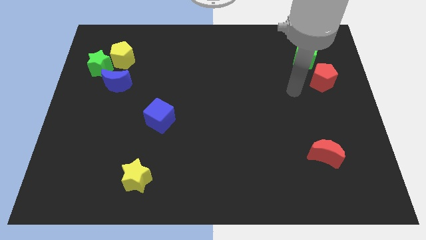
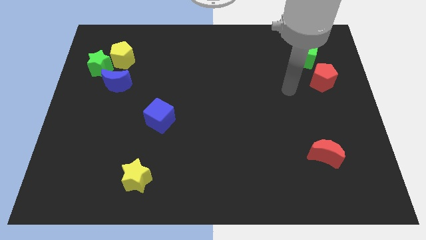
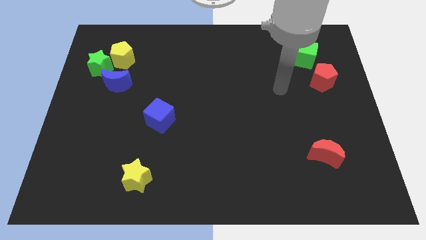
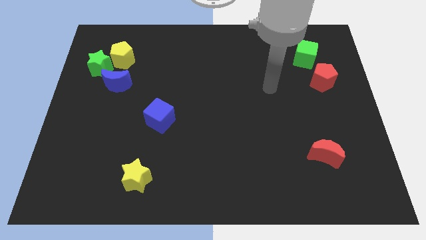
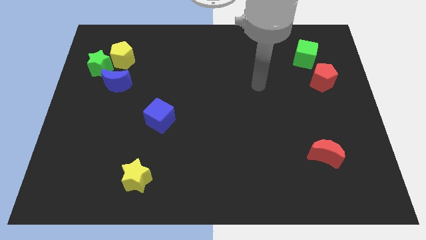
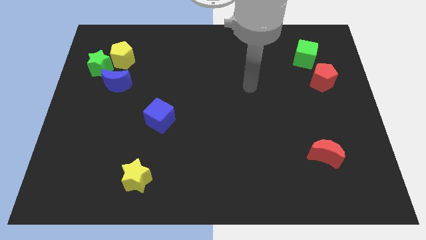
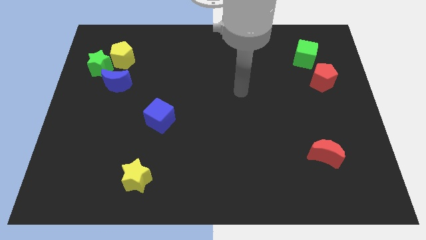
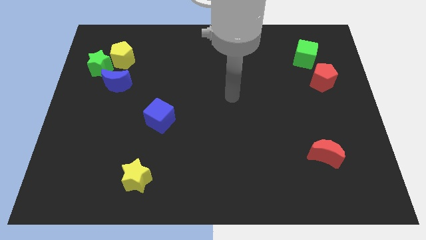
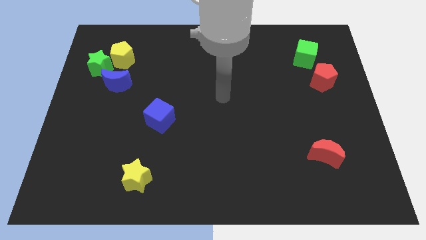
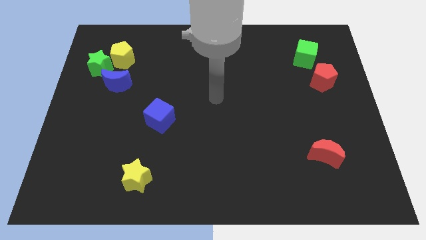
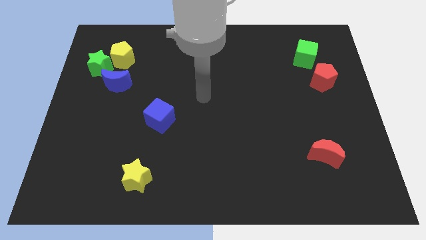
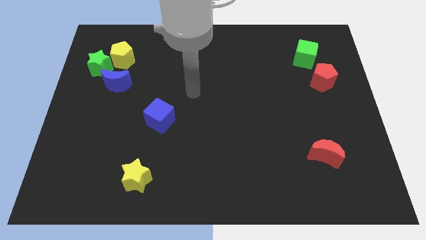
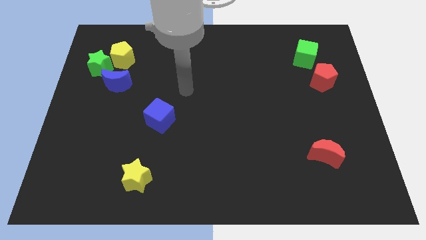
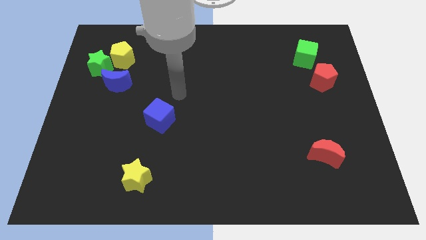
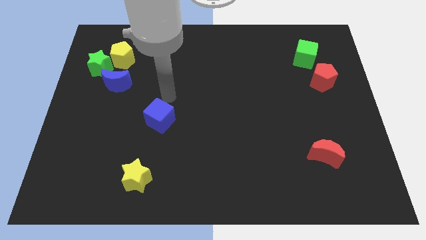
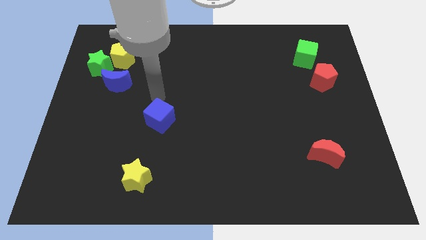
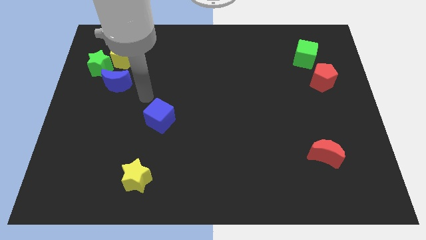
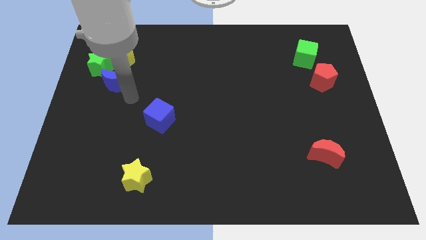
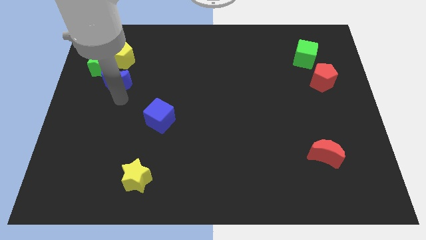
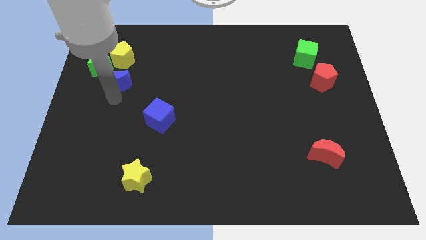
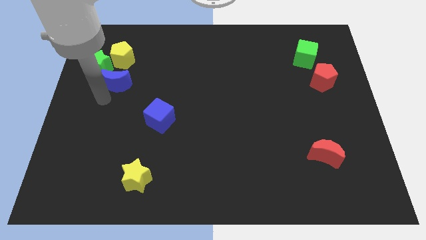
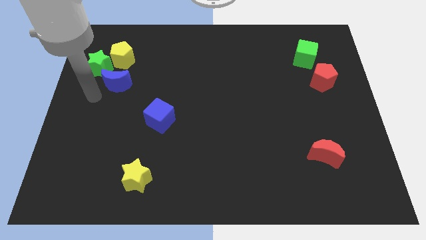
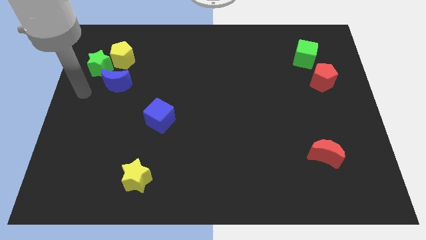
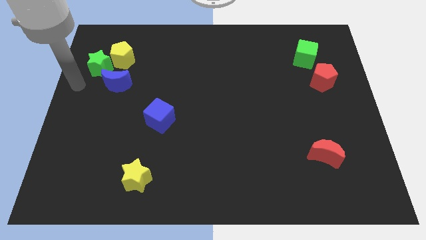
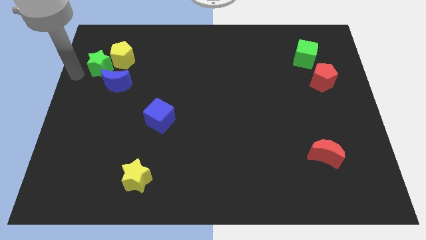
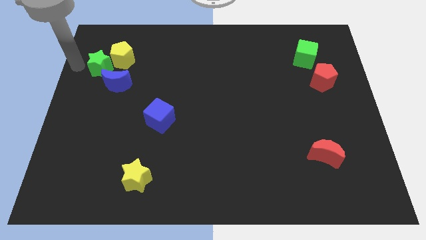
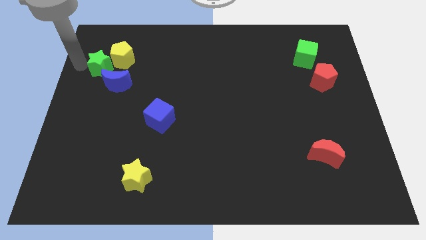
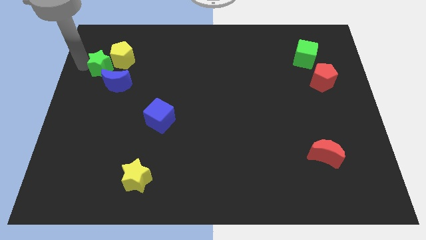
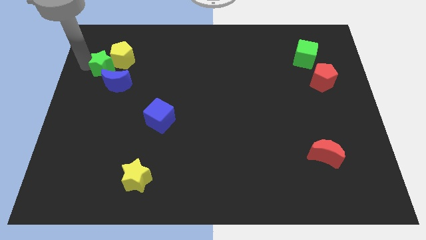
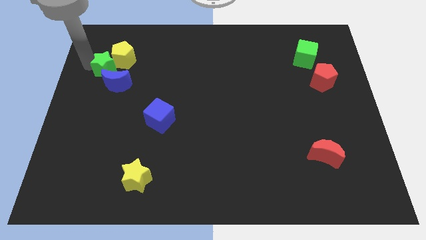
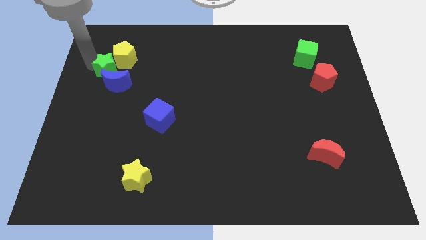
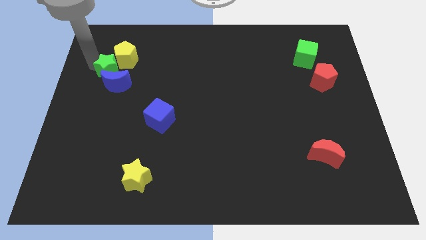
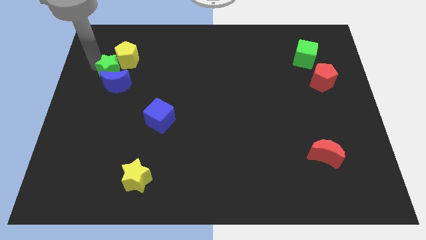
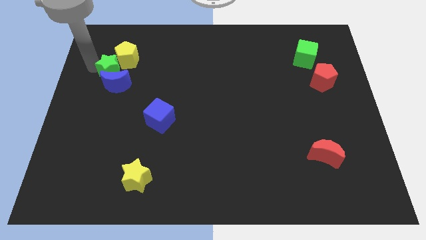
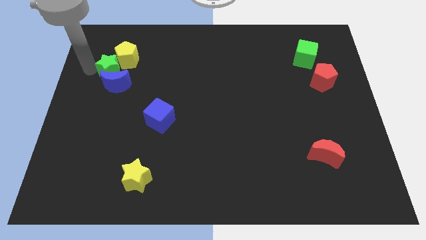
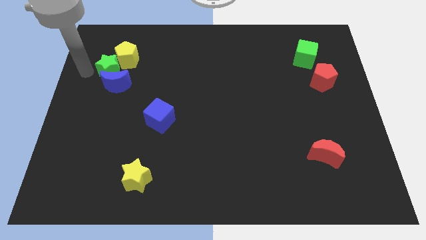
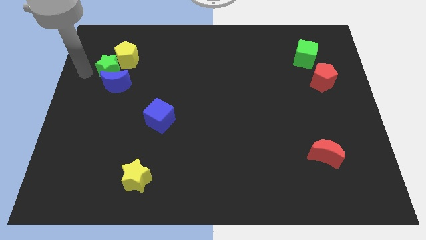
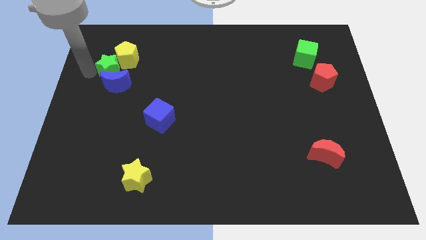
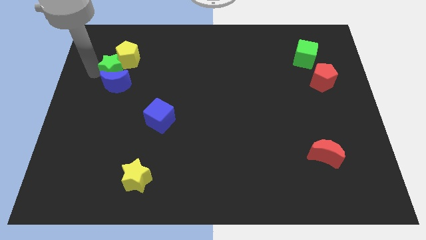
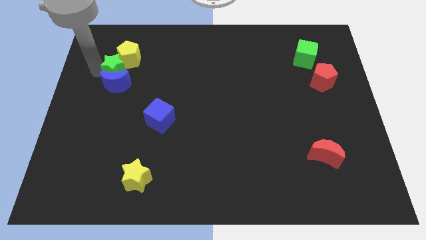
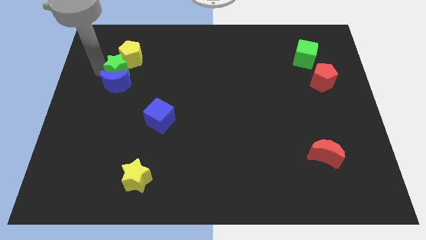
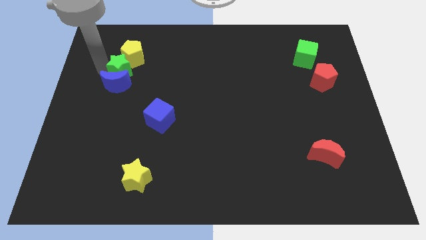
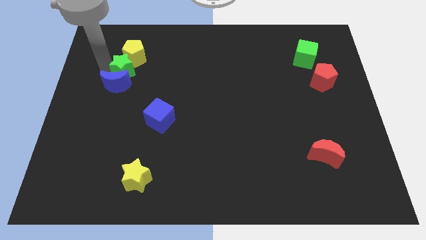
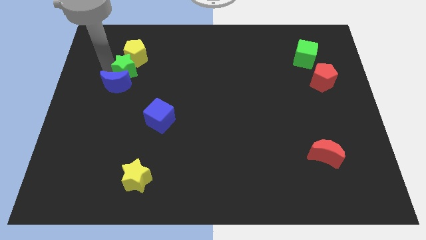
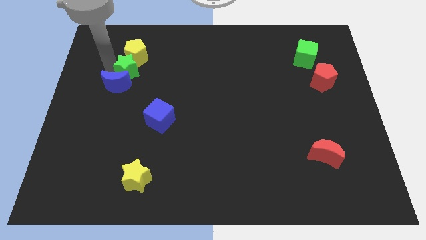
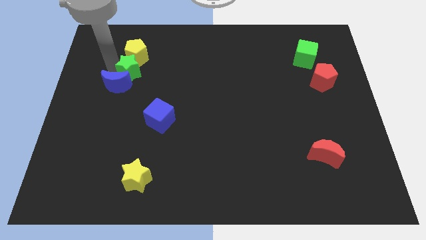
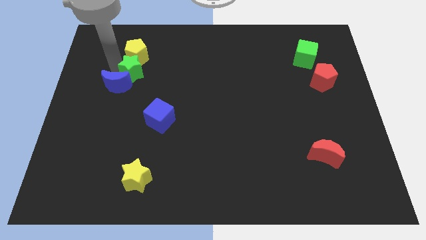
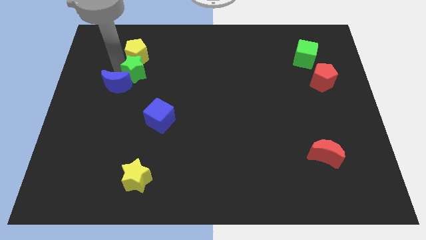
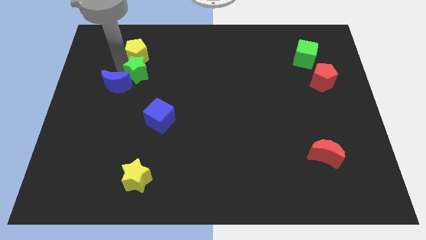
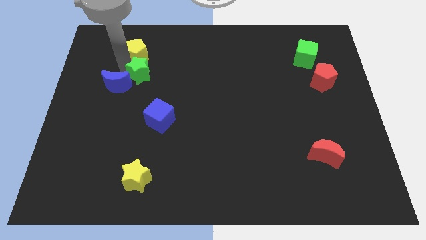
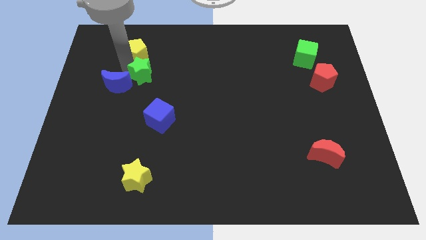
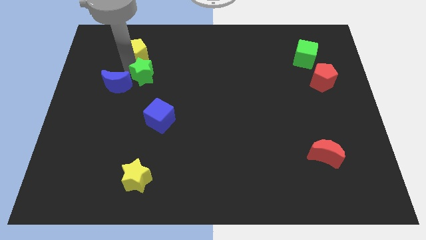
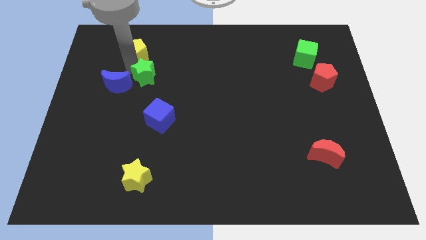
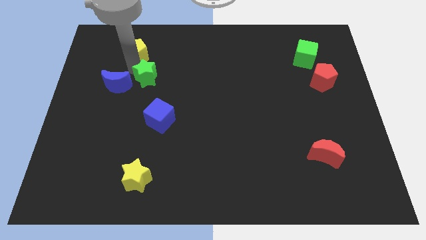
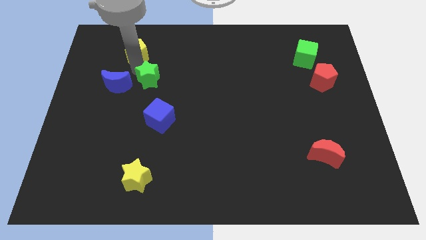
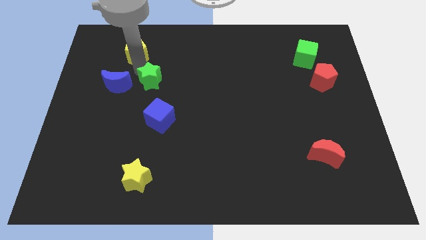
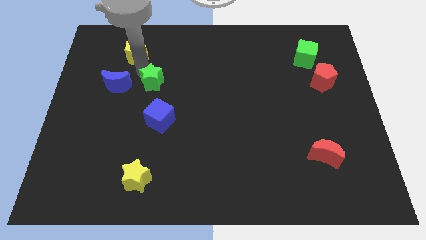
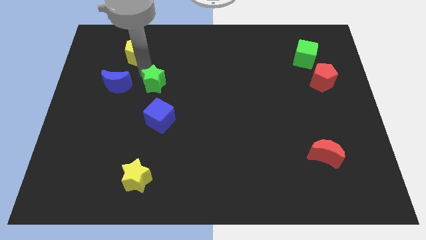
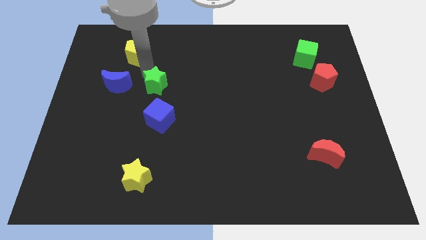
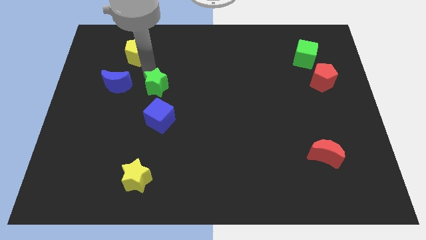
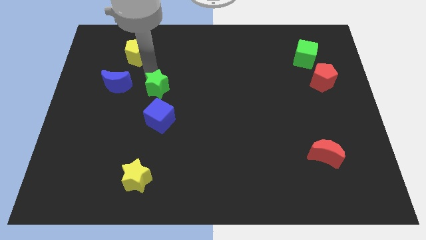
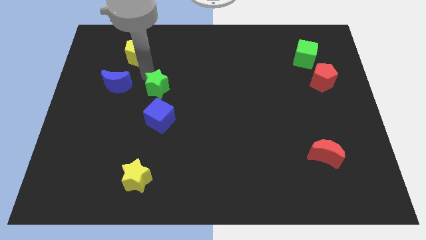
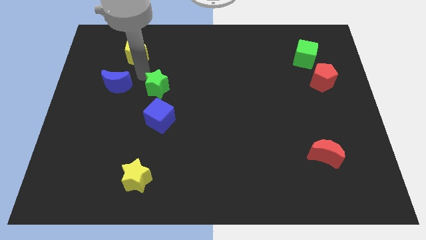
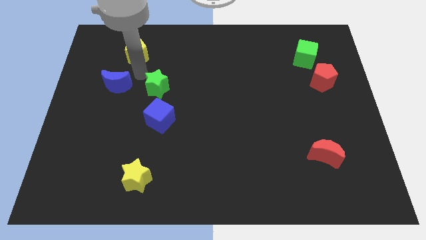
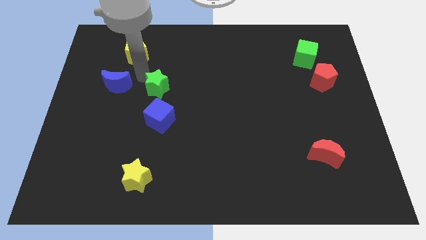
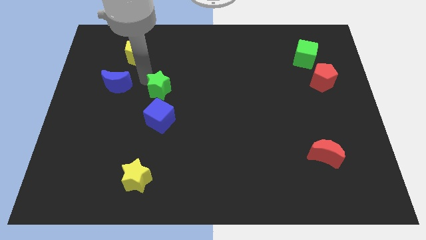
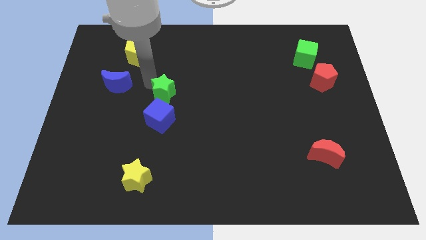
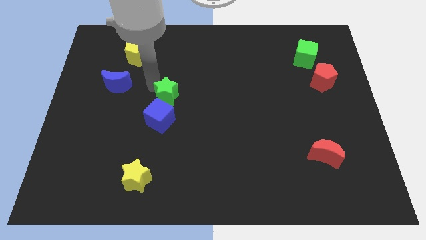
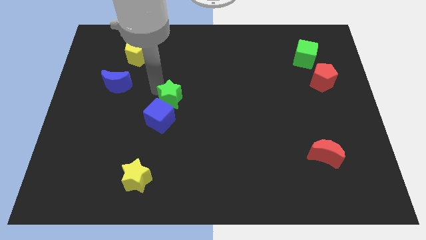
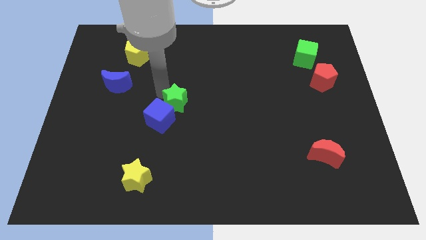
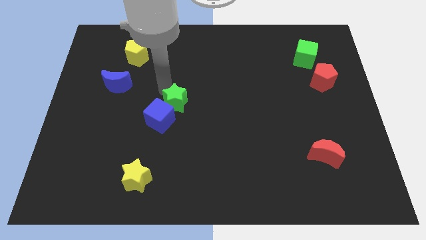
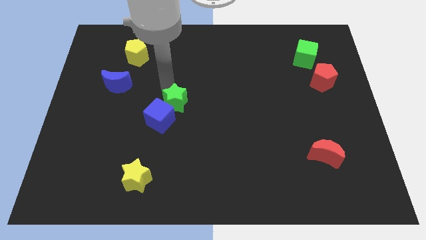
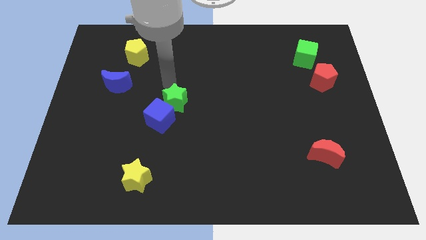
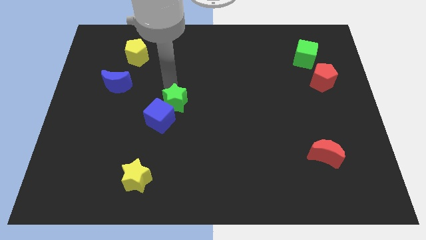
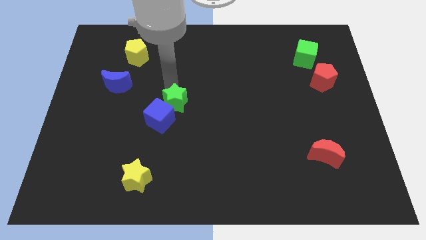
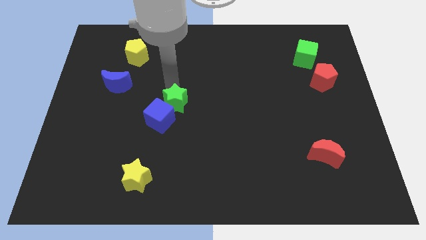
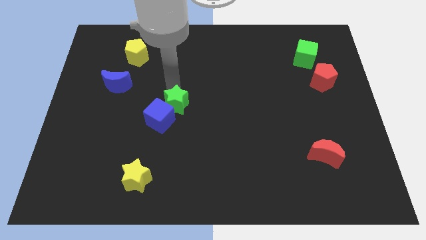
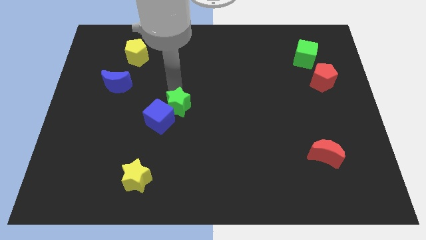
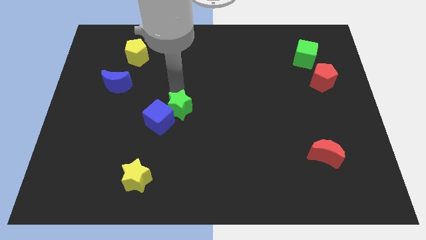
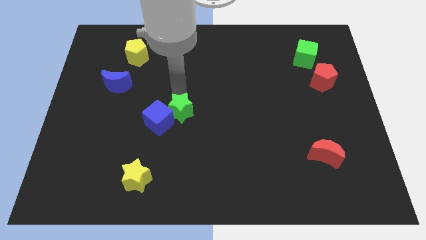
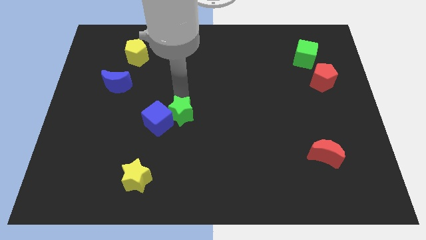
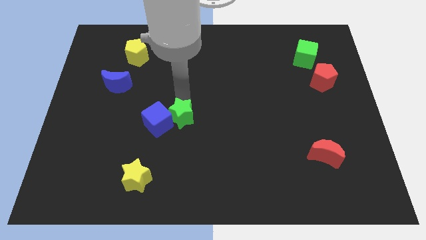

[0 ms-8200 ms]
move the green star to the bottom right side of the blue cube
